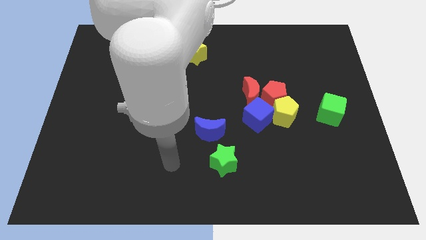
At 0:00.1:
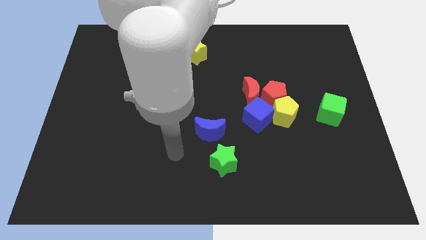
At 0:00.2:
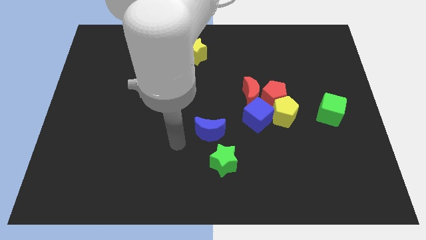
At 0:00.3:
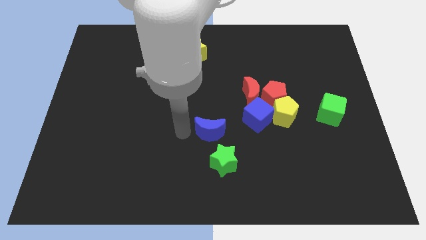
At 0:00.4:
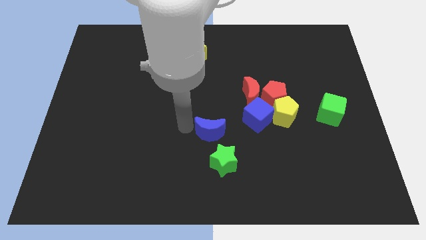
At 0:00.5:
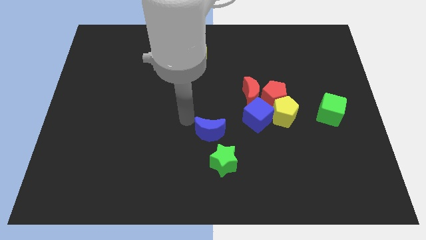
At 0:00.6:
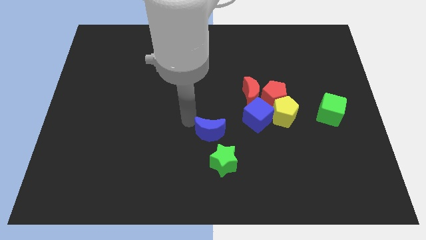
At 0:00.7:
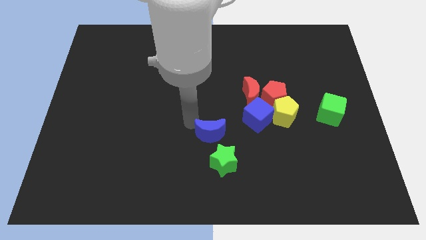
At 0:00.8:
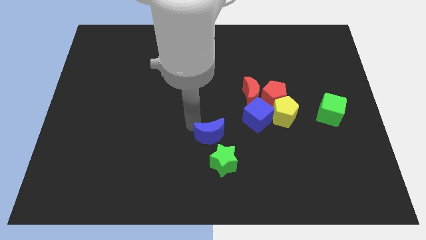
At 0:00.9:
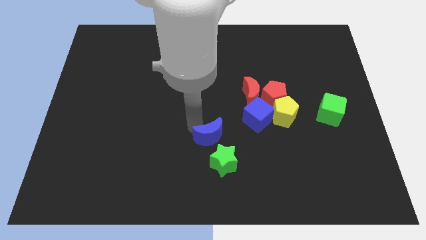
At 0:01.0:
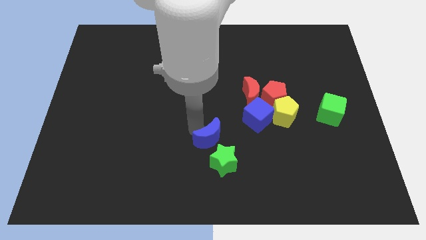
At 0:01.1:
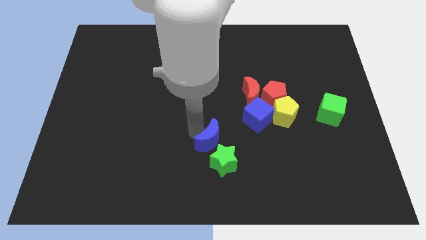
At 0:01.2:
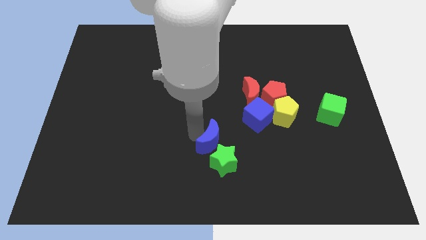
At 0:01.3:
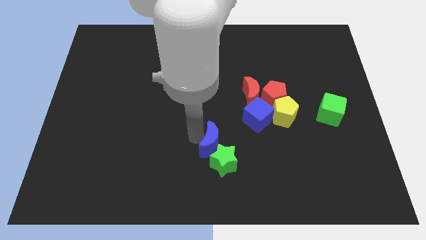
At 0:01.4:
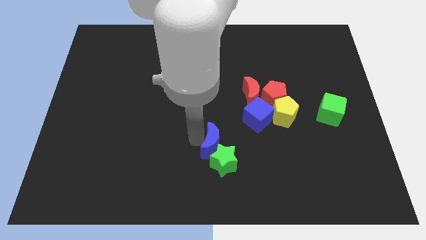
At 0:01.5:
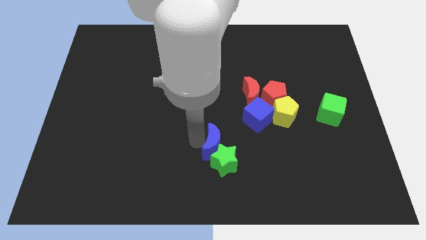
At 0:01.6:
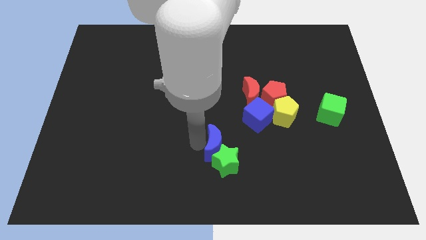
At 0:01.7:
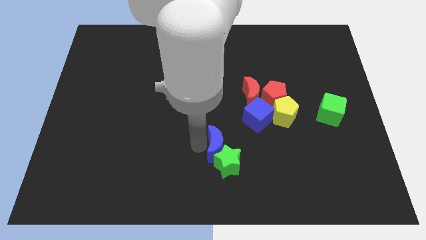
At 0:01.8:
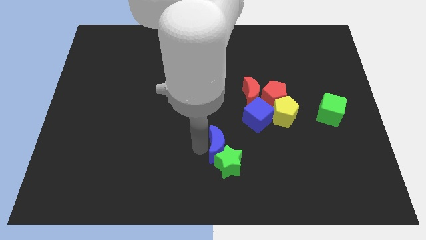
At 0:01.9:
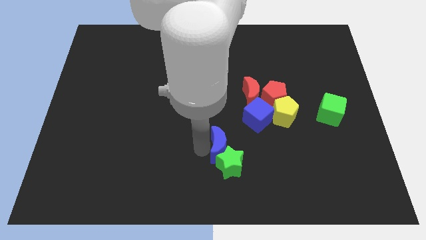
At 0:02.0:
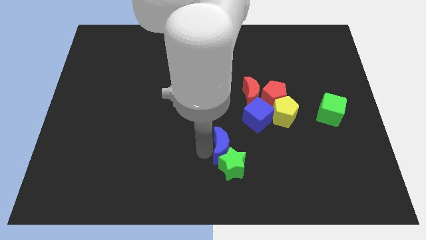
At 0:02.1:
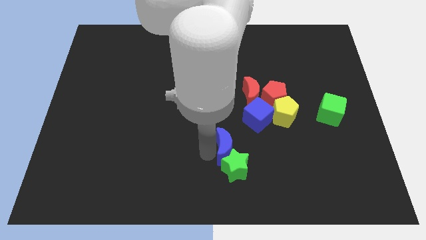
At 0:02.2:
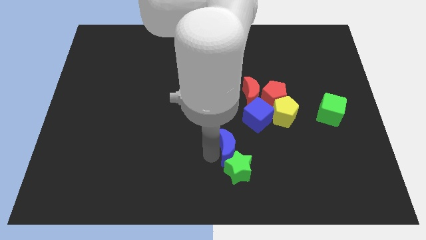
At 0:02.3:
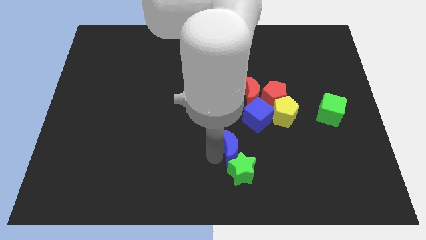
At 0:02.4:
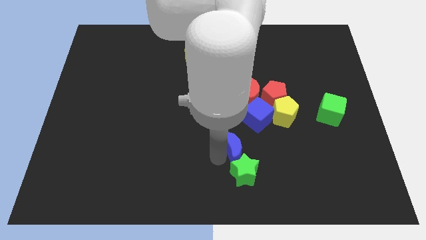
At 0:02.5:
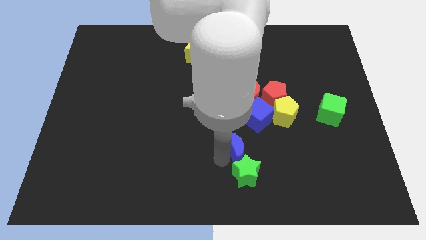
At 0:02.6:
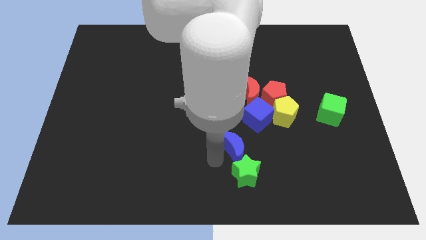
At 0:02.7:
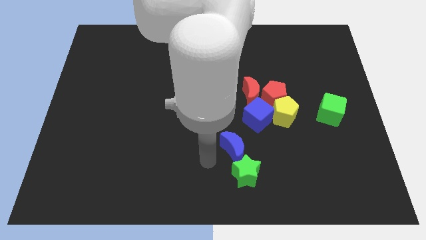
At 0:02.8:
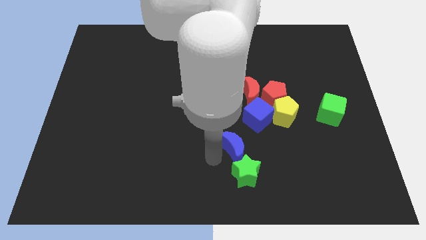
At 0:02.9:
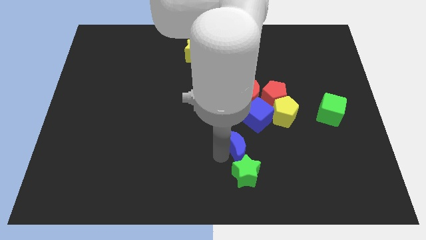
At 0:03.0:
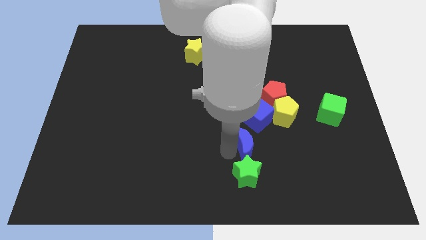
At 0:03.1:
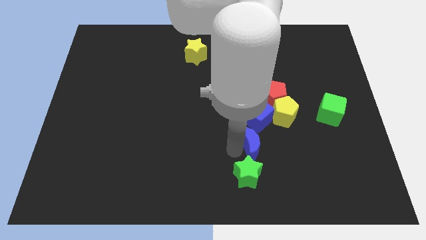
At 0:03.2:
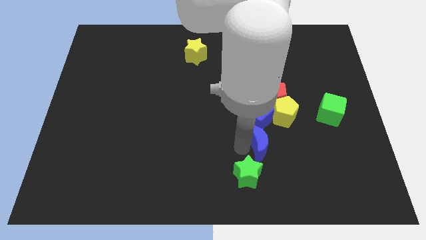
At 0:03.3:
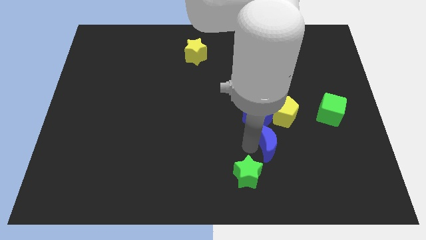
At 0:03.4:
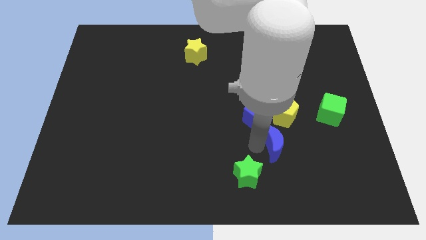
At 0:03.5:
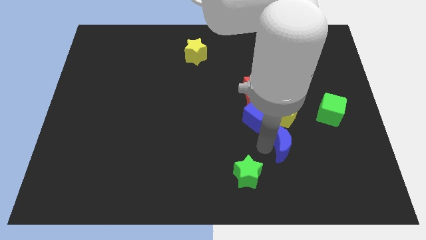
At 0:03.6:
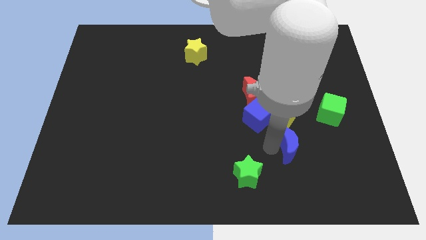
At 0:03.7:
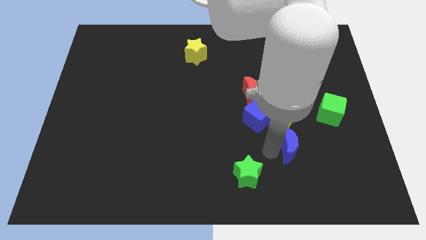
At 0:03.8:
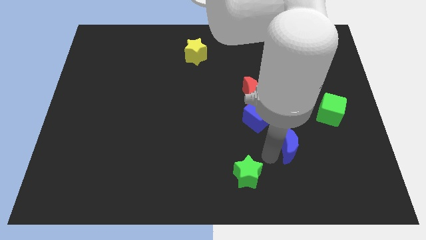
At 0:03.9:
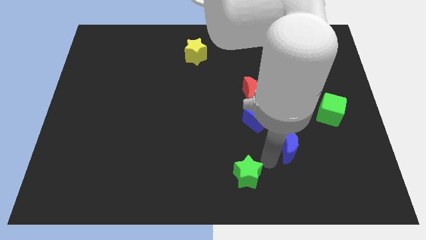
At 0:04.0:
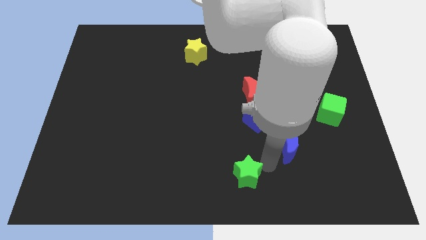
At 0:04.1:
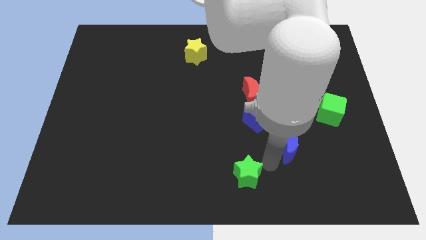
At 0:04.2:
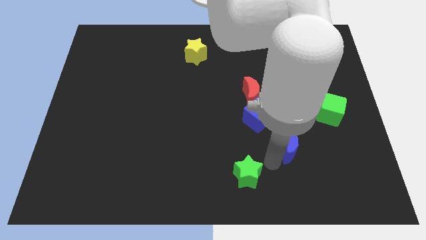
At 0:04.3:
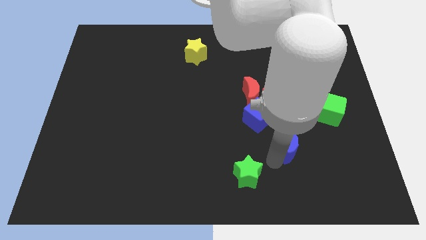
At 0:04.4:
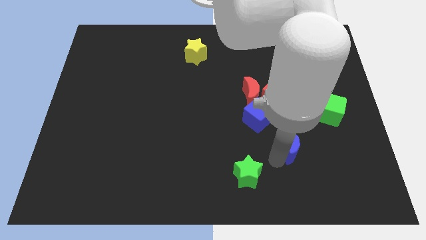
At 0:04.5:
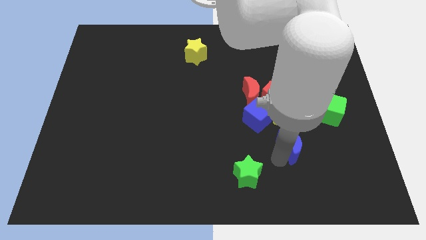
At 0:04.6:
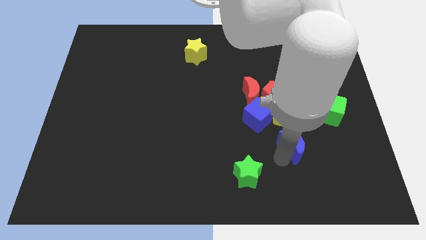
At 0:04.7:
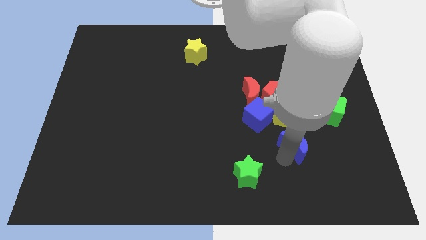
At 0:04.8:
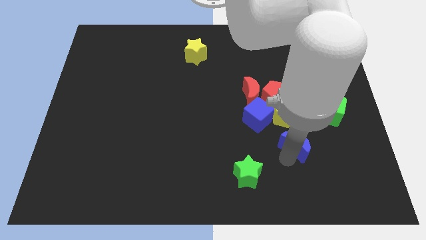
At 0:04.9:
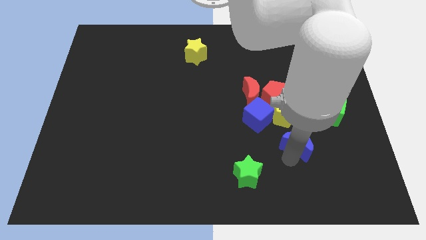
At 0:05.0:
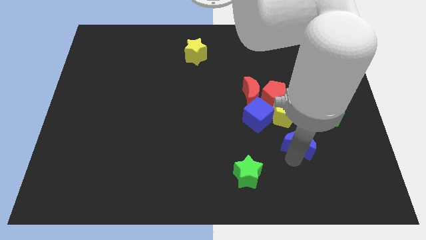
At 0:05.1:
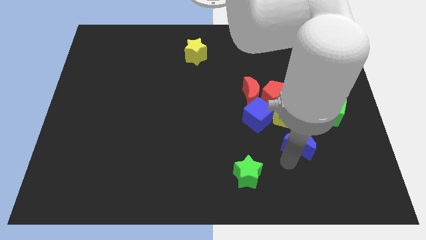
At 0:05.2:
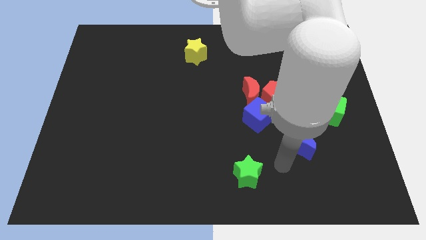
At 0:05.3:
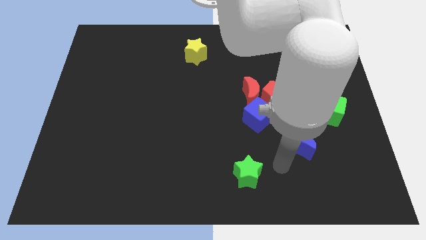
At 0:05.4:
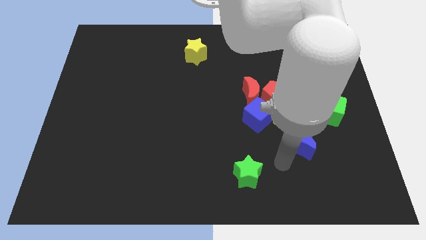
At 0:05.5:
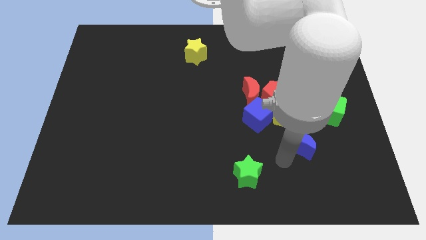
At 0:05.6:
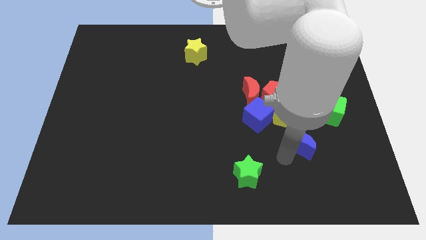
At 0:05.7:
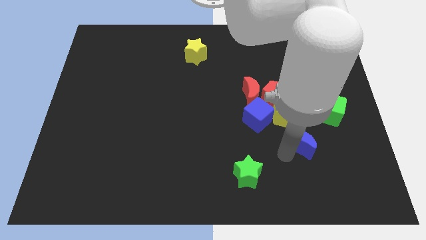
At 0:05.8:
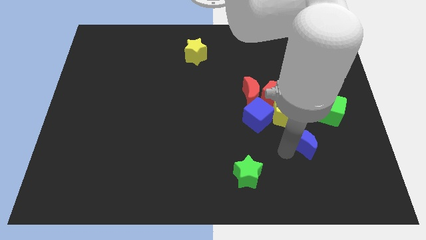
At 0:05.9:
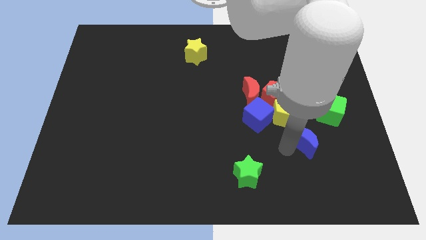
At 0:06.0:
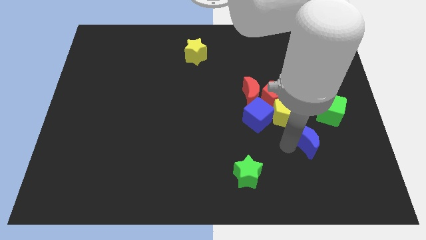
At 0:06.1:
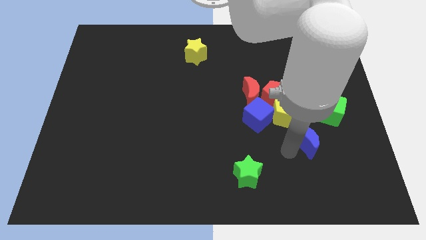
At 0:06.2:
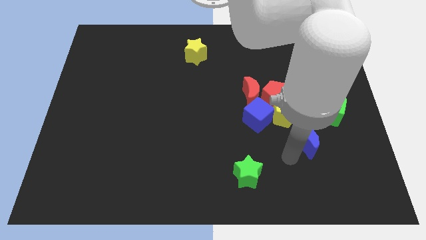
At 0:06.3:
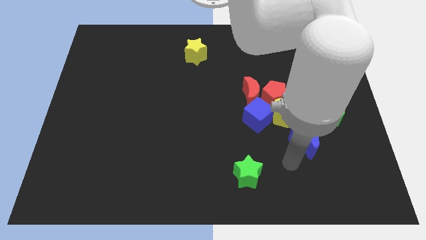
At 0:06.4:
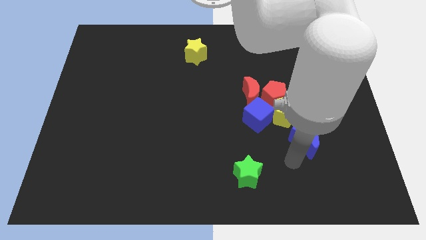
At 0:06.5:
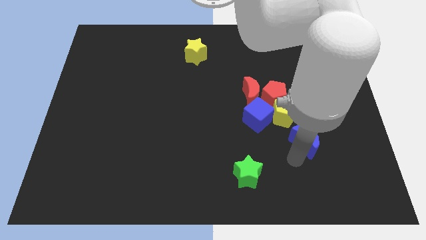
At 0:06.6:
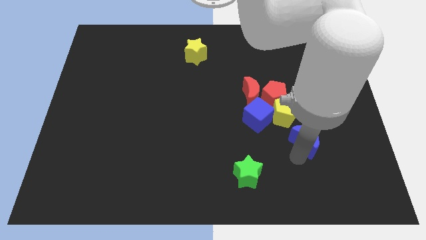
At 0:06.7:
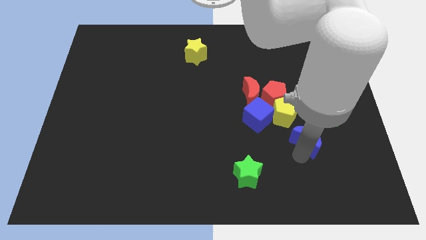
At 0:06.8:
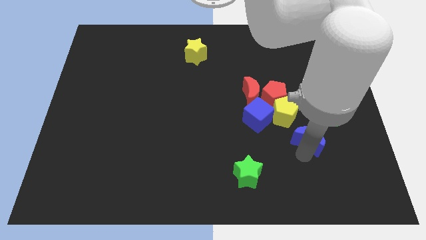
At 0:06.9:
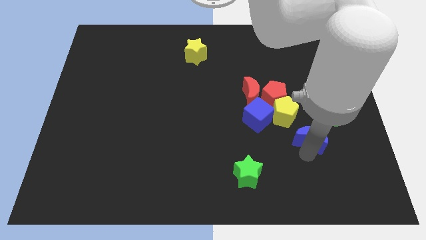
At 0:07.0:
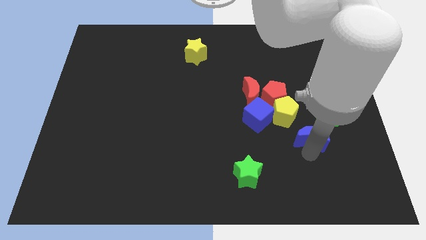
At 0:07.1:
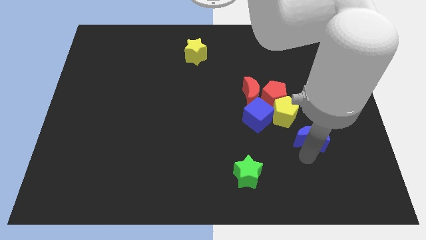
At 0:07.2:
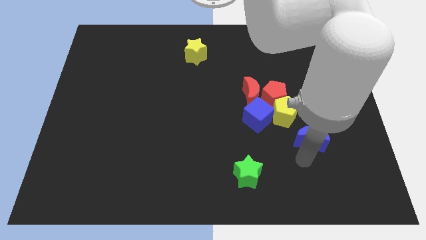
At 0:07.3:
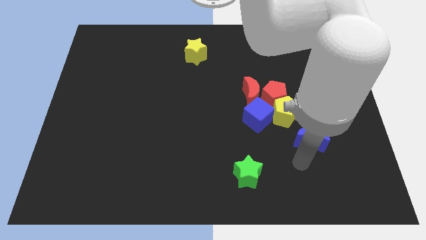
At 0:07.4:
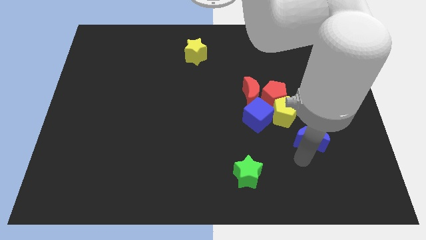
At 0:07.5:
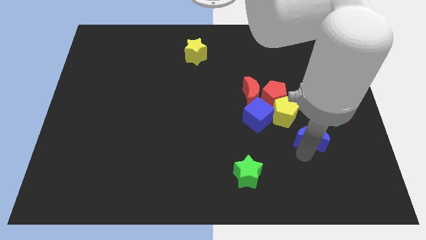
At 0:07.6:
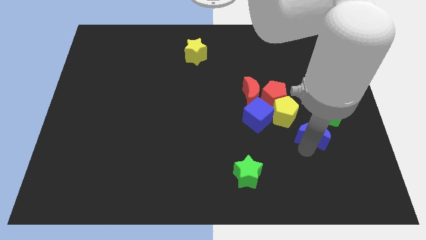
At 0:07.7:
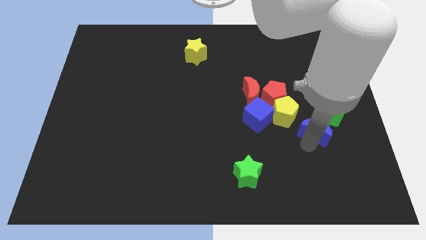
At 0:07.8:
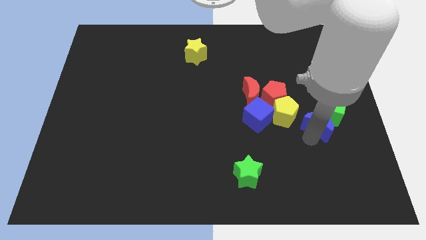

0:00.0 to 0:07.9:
move the blue moon towards the green cube

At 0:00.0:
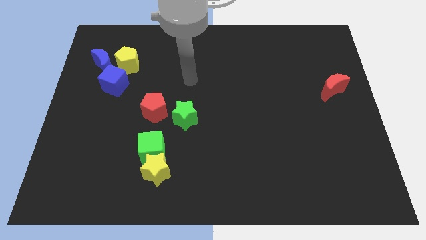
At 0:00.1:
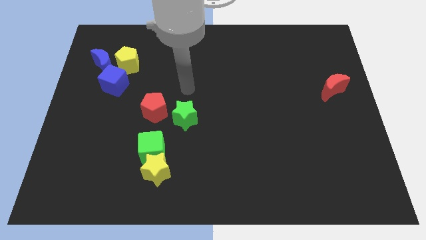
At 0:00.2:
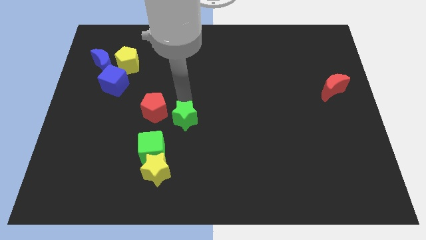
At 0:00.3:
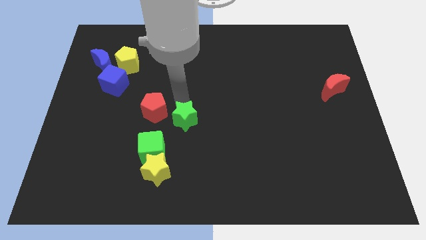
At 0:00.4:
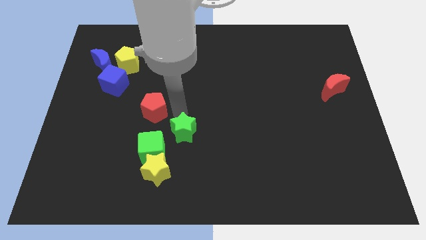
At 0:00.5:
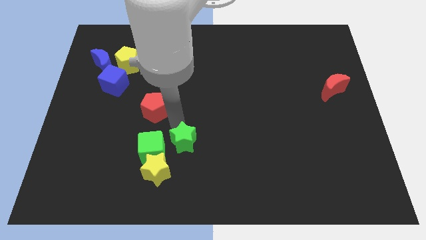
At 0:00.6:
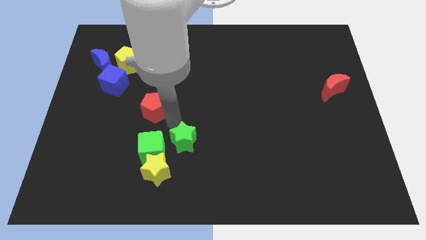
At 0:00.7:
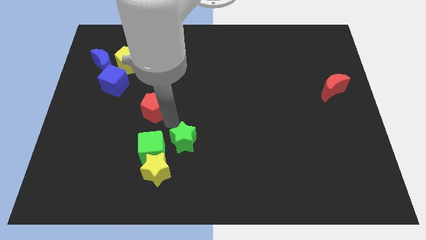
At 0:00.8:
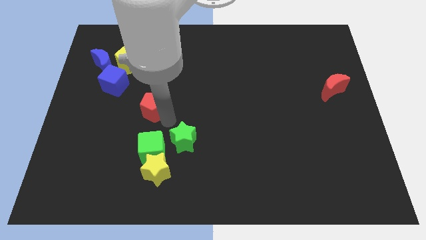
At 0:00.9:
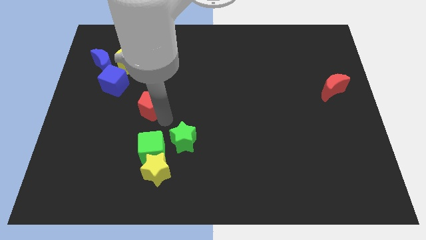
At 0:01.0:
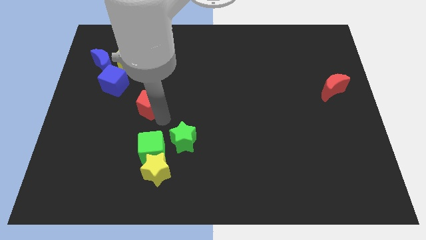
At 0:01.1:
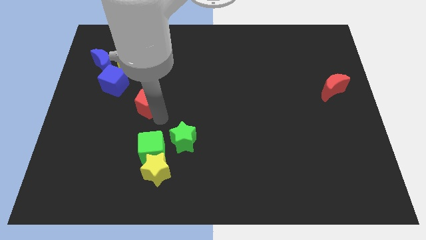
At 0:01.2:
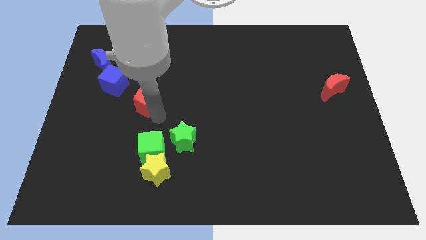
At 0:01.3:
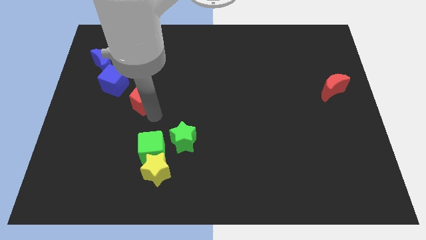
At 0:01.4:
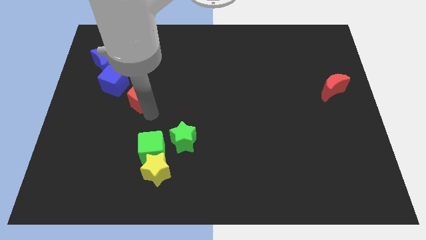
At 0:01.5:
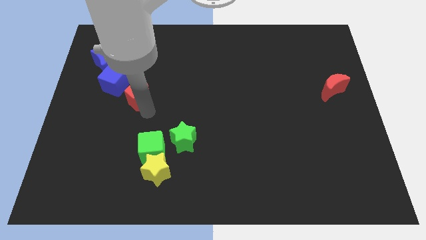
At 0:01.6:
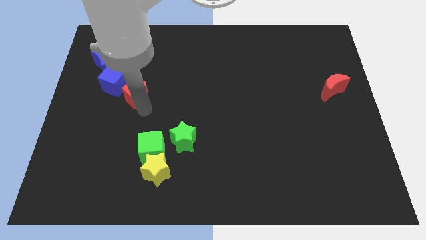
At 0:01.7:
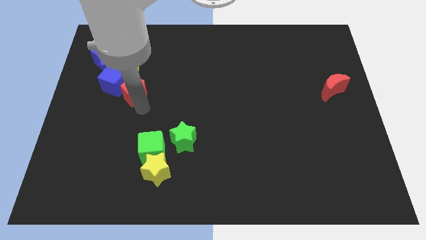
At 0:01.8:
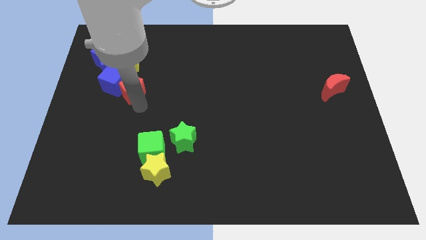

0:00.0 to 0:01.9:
push the red pentagon close to the blue cube
